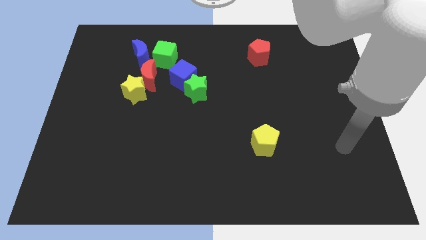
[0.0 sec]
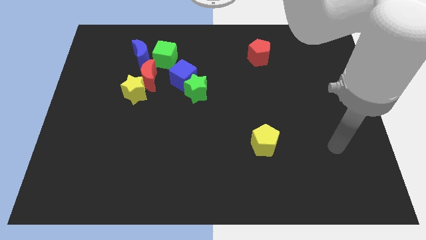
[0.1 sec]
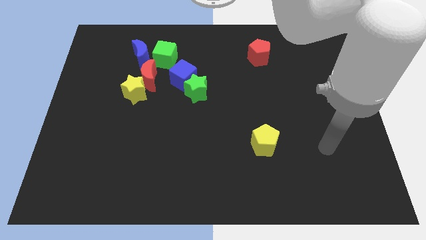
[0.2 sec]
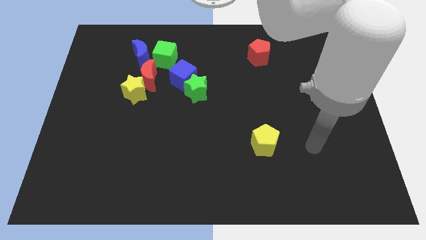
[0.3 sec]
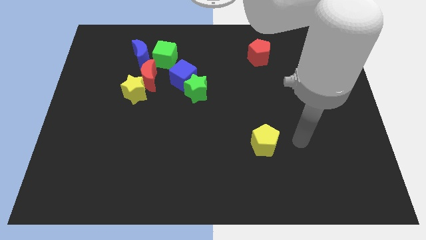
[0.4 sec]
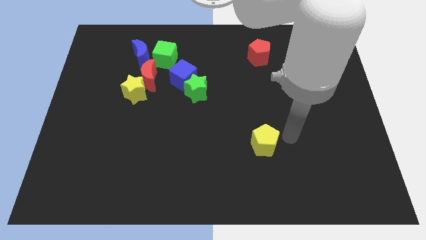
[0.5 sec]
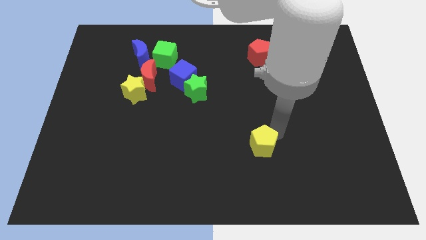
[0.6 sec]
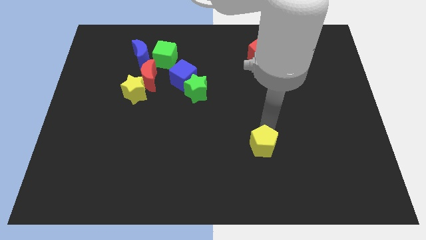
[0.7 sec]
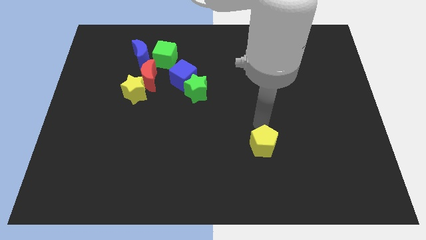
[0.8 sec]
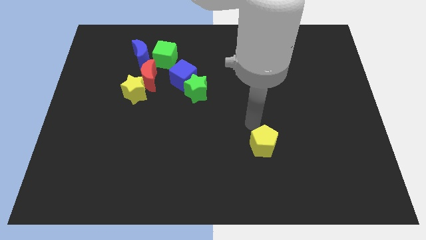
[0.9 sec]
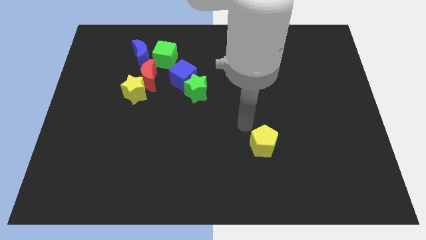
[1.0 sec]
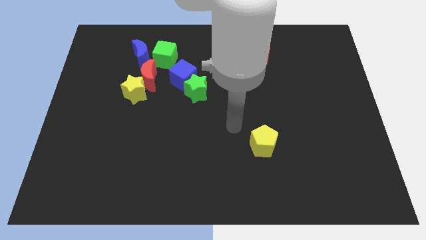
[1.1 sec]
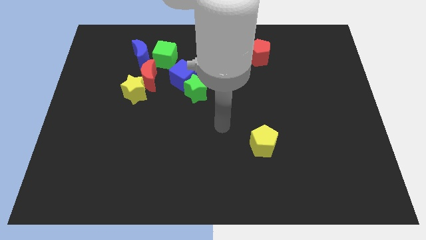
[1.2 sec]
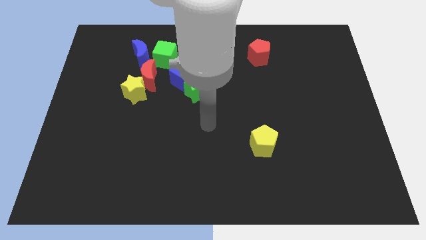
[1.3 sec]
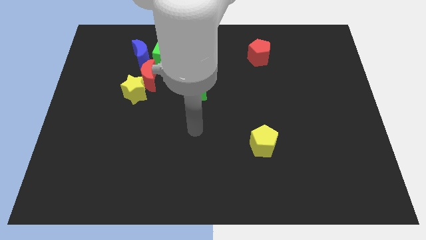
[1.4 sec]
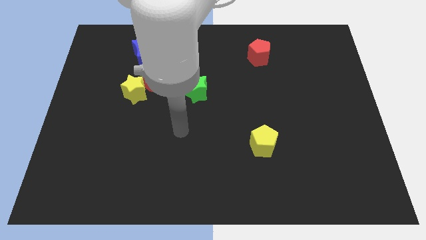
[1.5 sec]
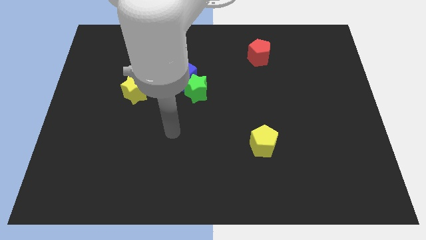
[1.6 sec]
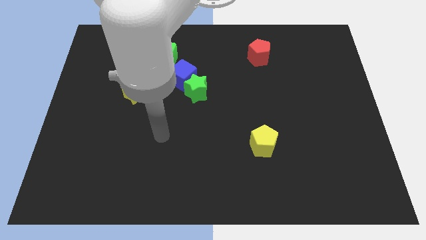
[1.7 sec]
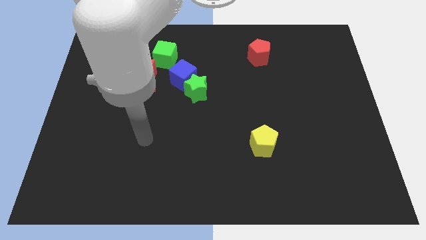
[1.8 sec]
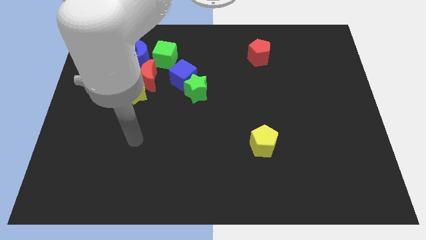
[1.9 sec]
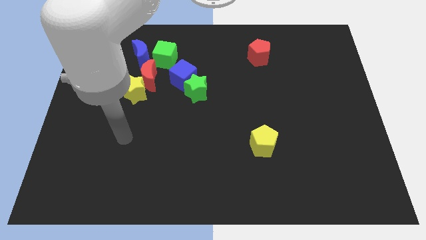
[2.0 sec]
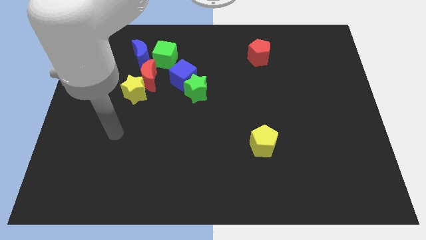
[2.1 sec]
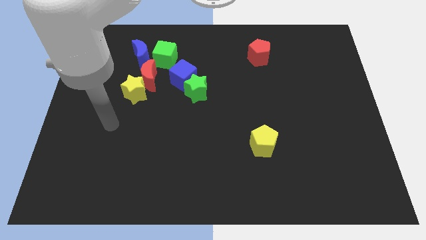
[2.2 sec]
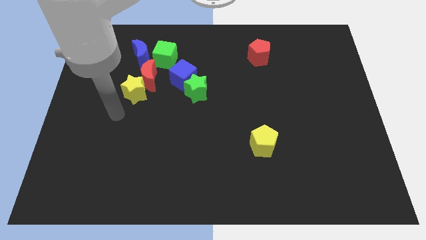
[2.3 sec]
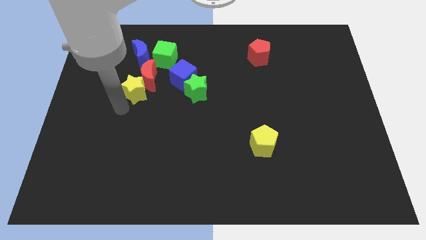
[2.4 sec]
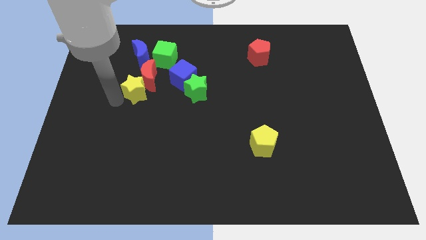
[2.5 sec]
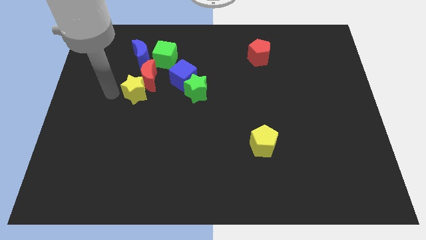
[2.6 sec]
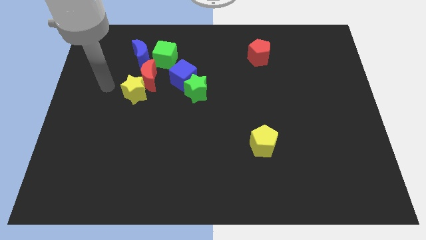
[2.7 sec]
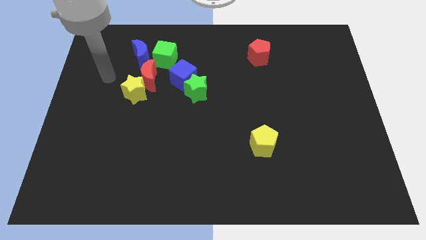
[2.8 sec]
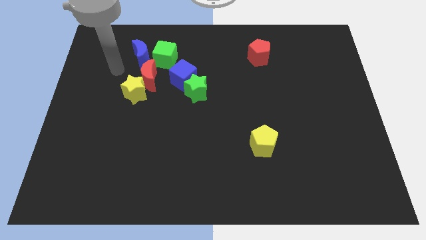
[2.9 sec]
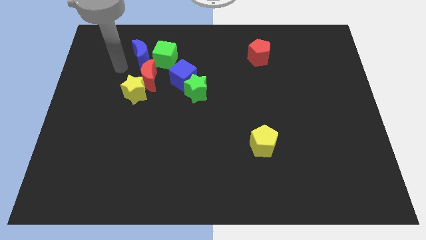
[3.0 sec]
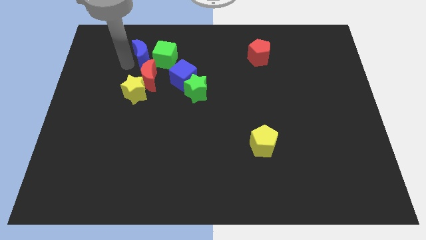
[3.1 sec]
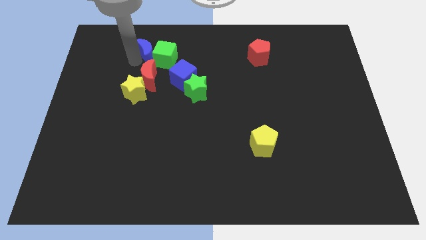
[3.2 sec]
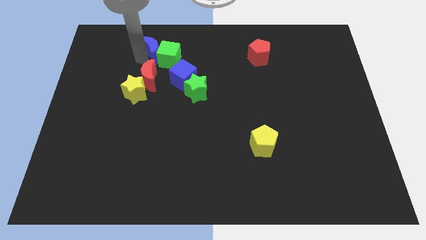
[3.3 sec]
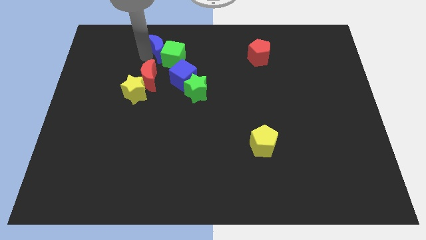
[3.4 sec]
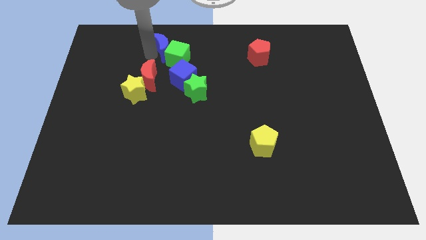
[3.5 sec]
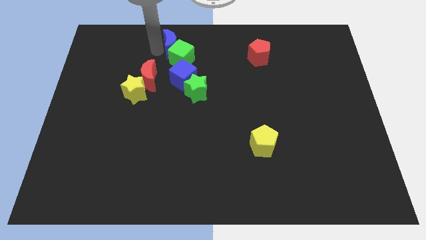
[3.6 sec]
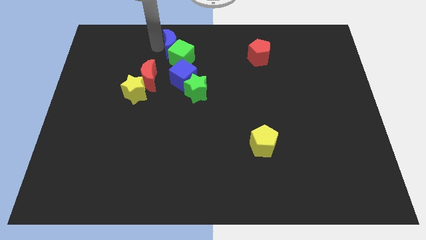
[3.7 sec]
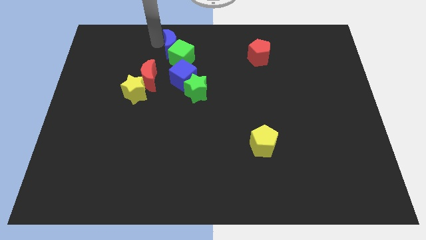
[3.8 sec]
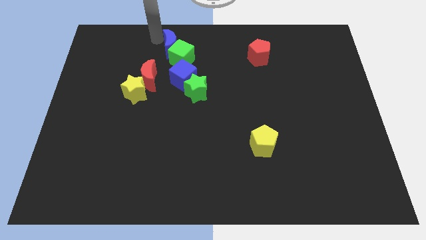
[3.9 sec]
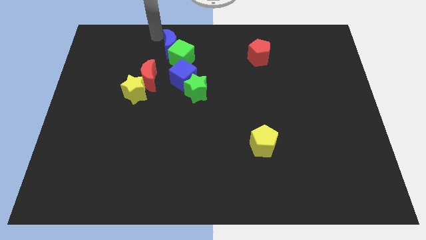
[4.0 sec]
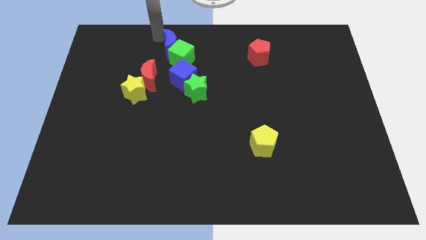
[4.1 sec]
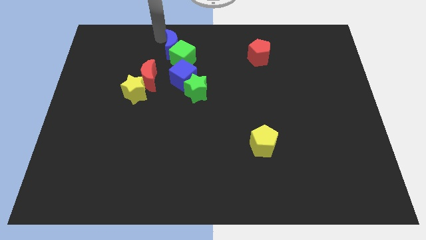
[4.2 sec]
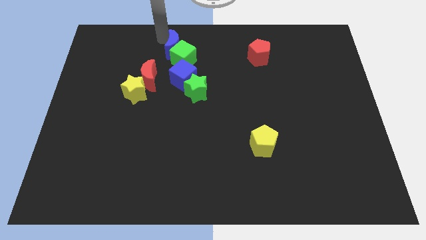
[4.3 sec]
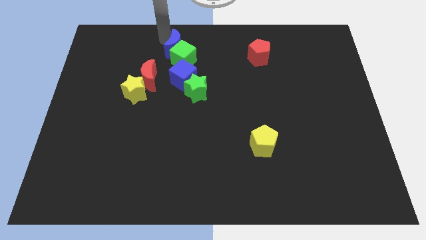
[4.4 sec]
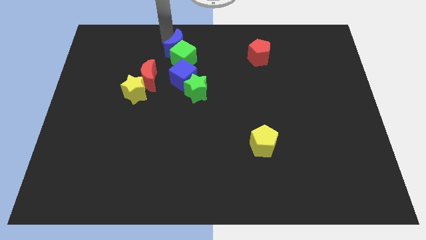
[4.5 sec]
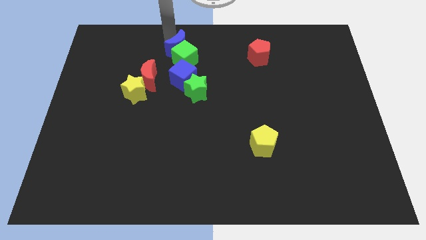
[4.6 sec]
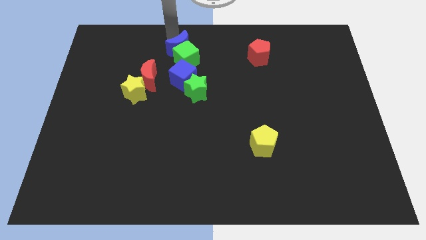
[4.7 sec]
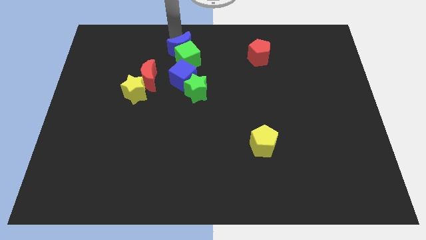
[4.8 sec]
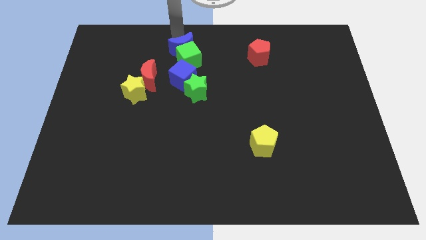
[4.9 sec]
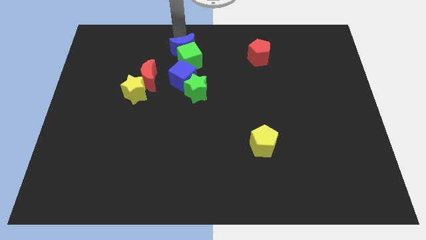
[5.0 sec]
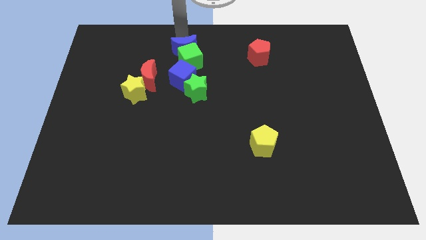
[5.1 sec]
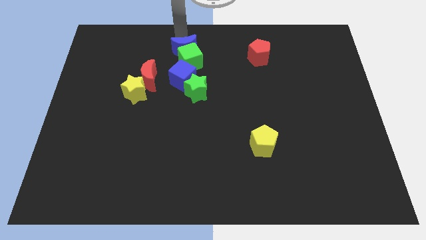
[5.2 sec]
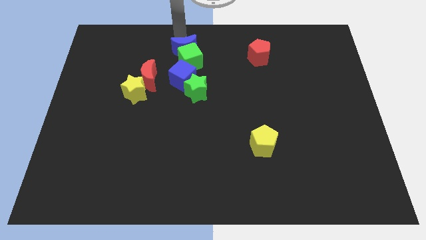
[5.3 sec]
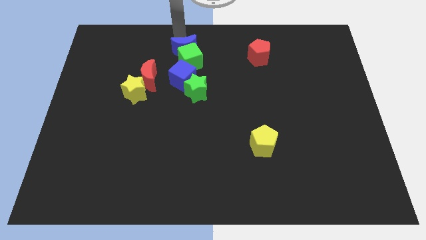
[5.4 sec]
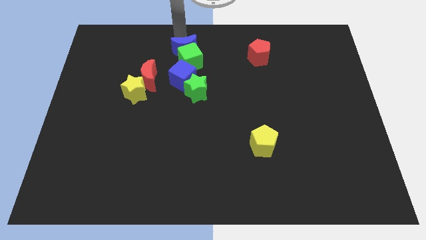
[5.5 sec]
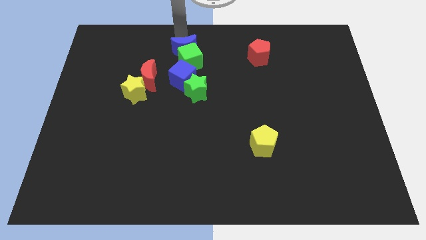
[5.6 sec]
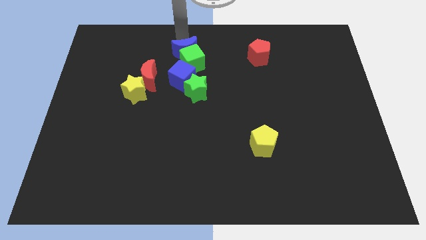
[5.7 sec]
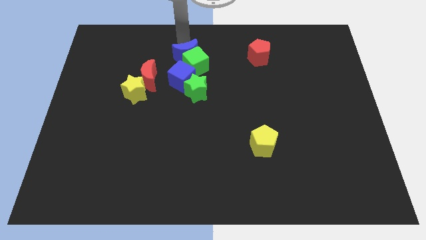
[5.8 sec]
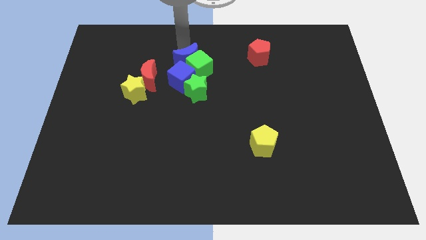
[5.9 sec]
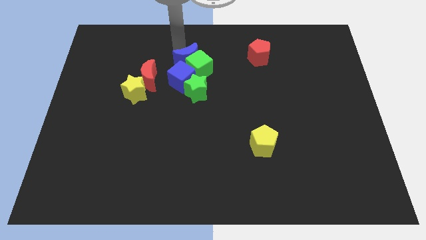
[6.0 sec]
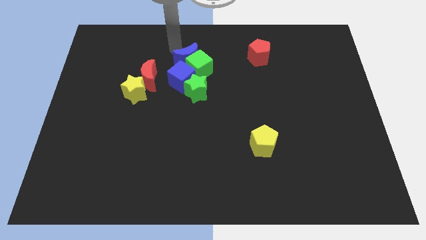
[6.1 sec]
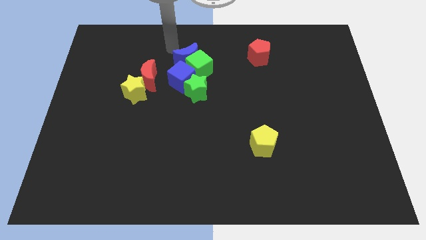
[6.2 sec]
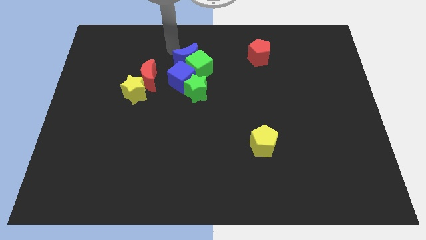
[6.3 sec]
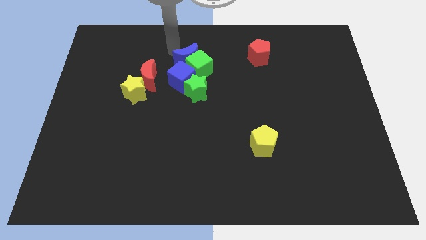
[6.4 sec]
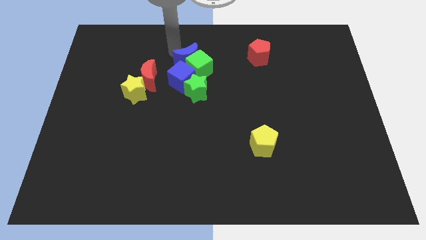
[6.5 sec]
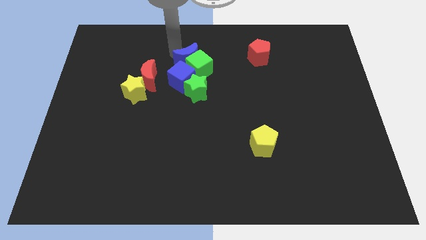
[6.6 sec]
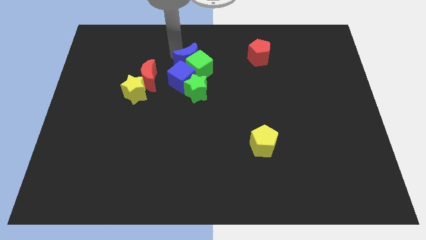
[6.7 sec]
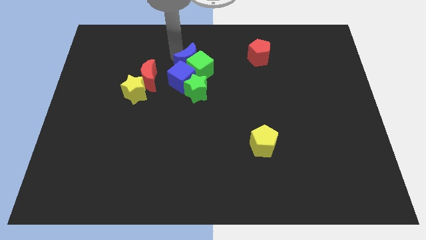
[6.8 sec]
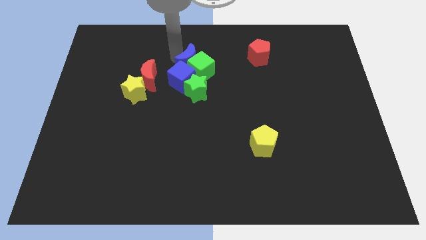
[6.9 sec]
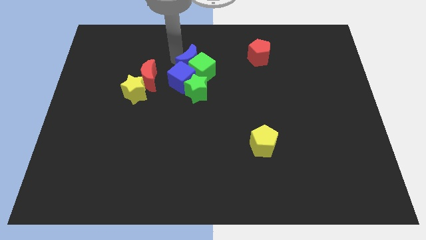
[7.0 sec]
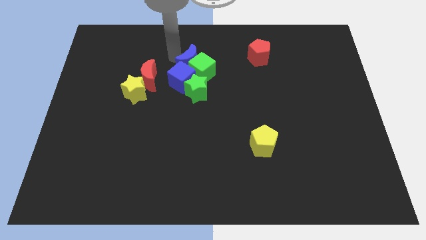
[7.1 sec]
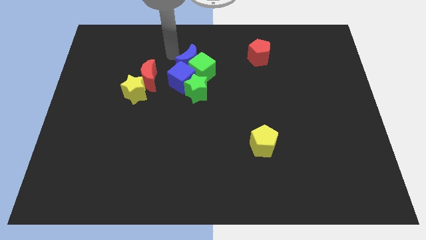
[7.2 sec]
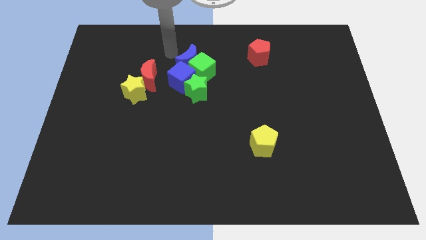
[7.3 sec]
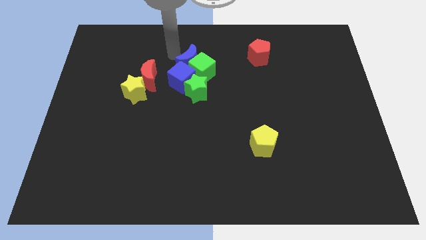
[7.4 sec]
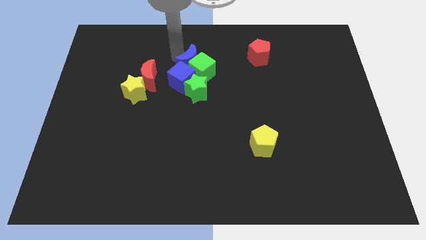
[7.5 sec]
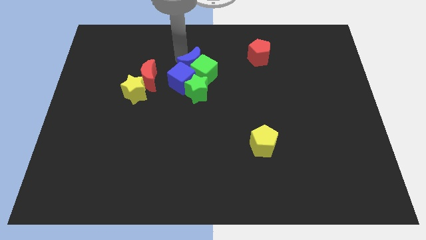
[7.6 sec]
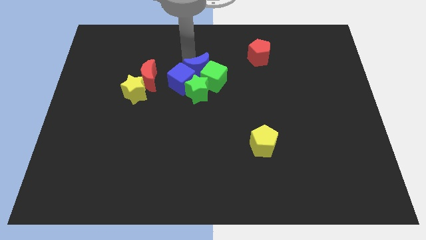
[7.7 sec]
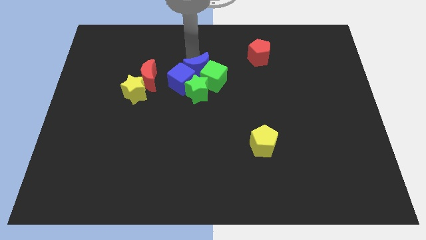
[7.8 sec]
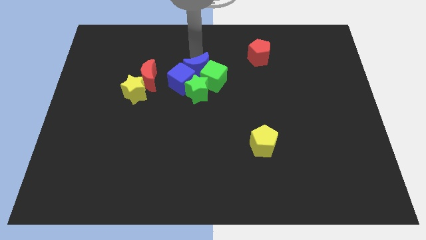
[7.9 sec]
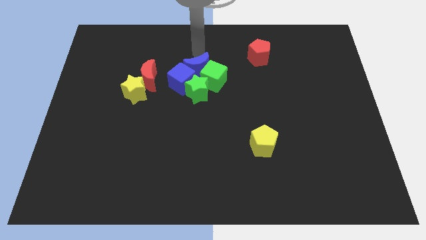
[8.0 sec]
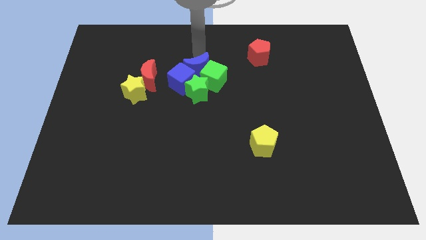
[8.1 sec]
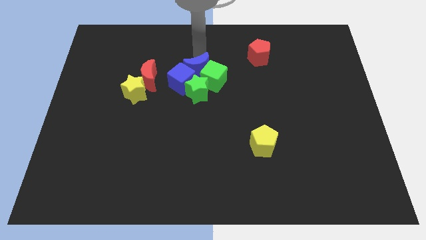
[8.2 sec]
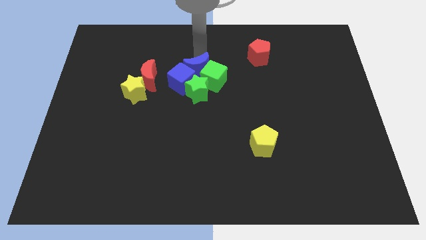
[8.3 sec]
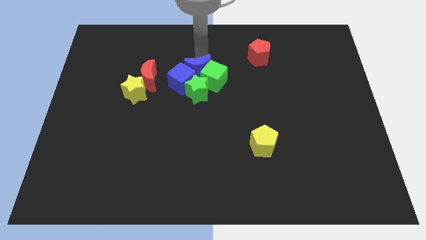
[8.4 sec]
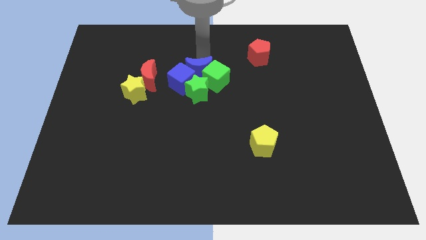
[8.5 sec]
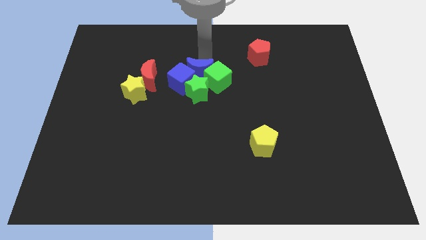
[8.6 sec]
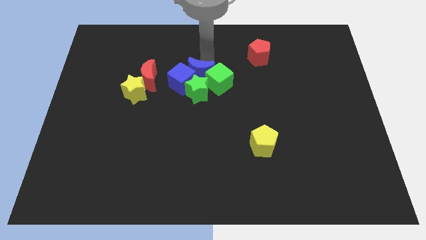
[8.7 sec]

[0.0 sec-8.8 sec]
slide the blue moon close to the green star
